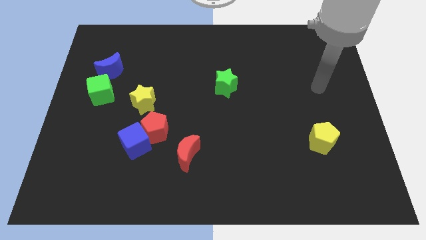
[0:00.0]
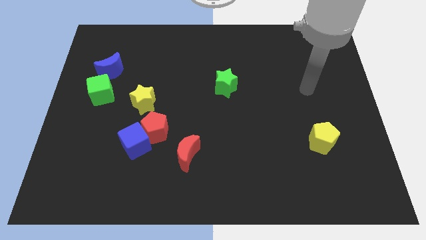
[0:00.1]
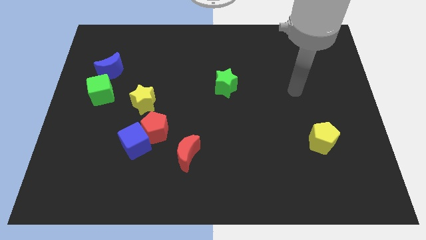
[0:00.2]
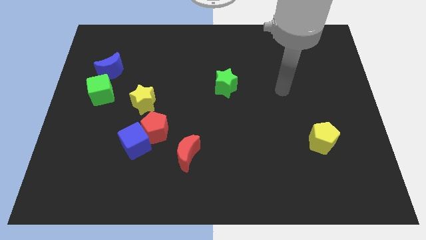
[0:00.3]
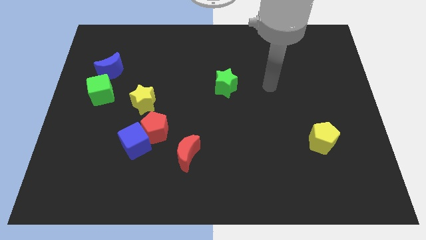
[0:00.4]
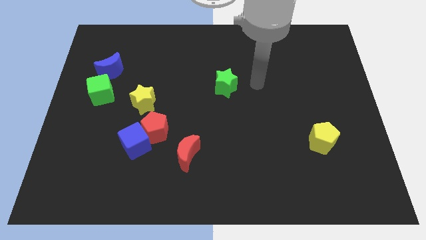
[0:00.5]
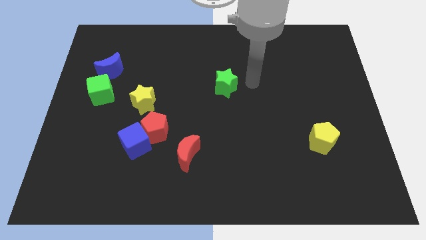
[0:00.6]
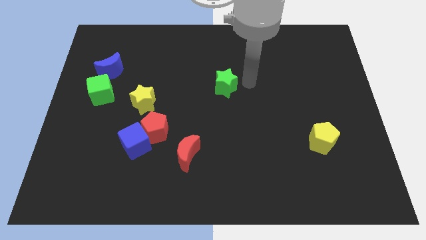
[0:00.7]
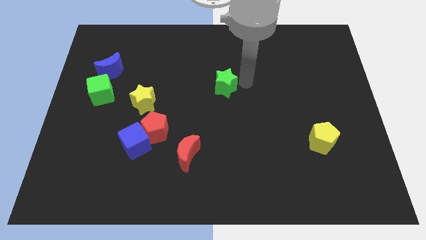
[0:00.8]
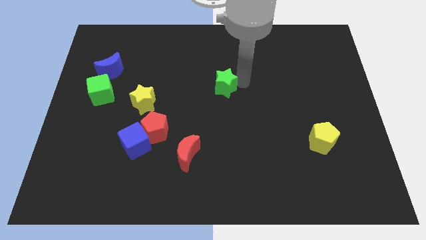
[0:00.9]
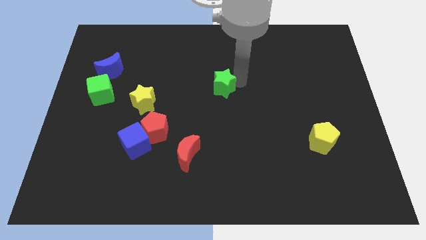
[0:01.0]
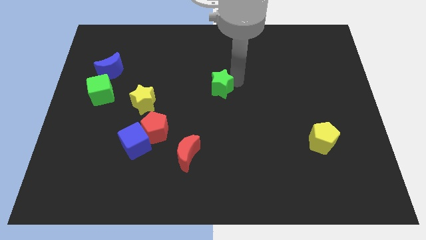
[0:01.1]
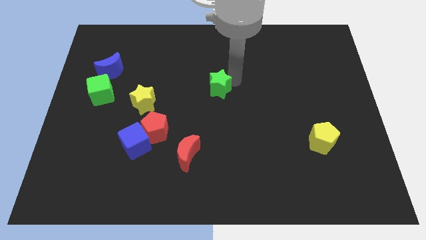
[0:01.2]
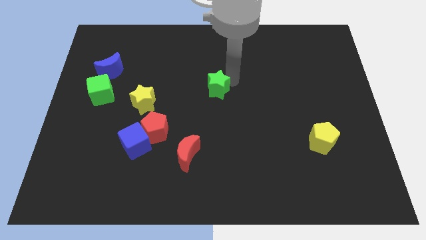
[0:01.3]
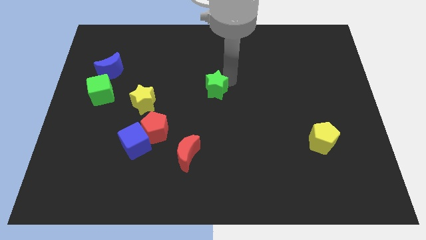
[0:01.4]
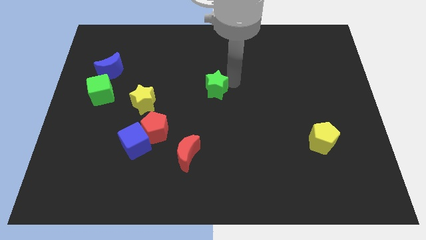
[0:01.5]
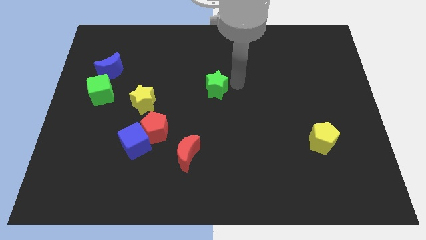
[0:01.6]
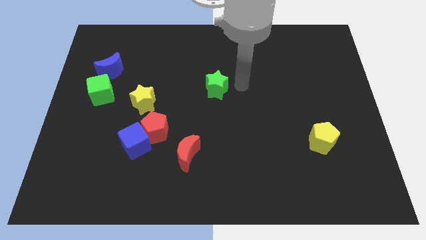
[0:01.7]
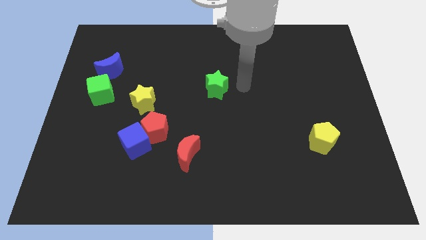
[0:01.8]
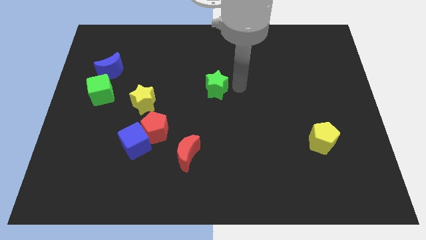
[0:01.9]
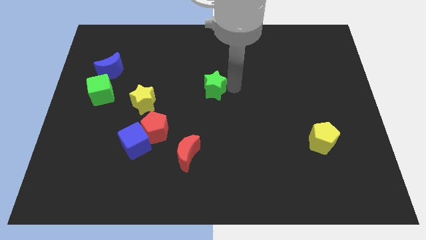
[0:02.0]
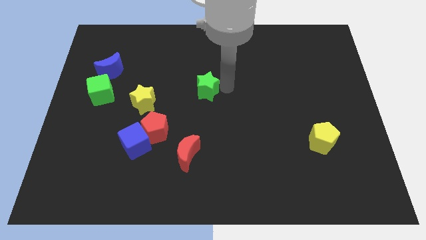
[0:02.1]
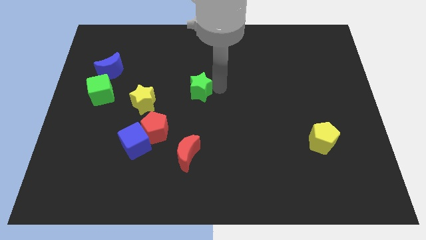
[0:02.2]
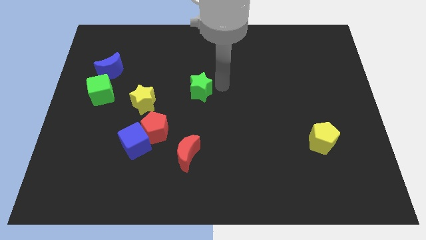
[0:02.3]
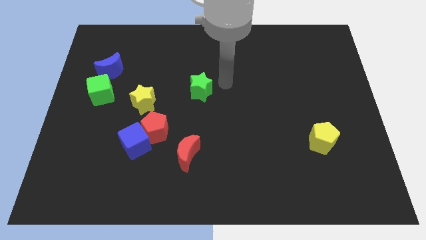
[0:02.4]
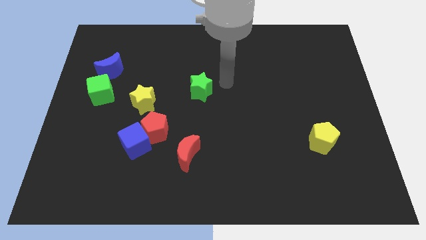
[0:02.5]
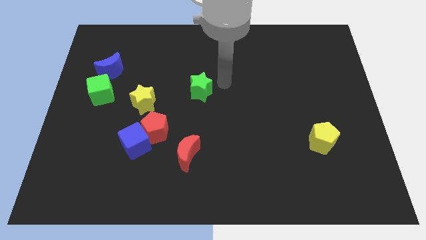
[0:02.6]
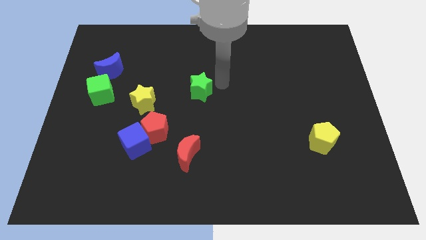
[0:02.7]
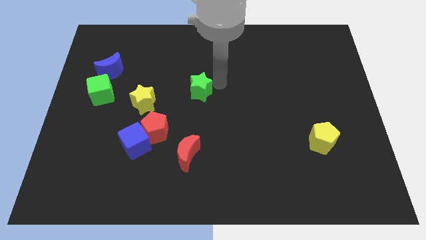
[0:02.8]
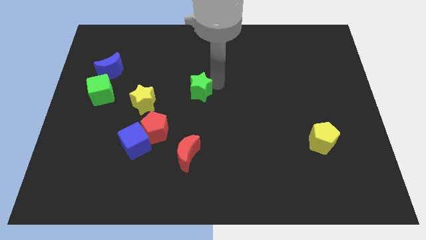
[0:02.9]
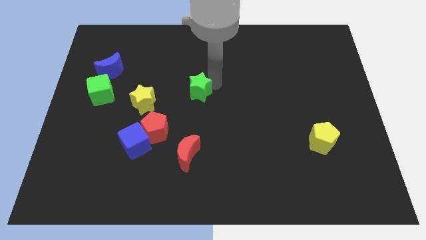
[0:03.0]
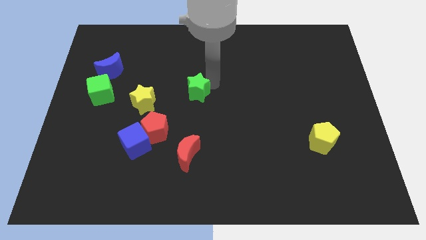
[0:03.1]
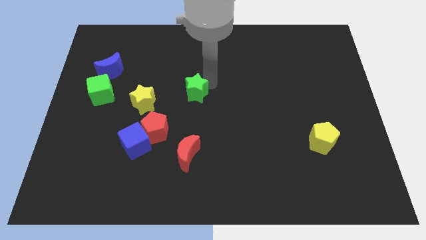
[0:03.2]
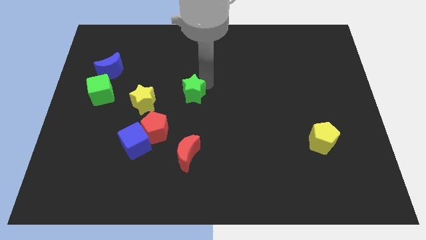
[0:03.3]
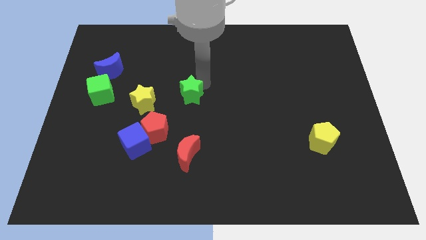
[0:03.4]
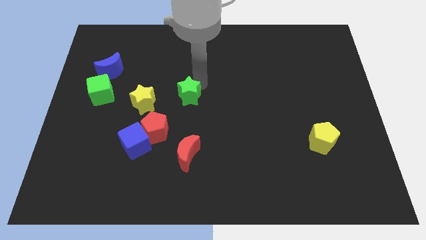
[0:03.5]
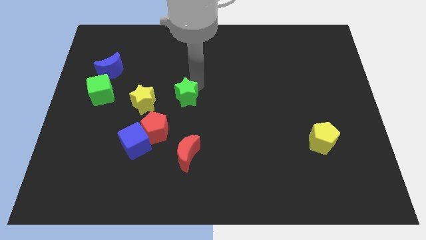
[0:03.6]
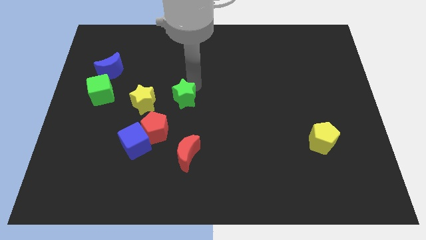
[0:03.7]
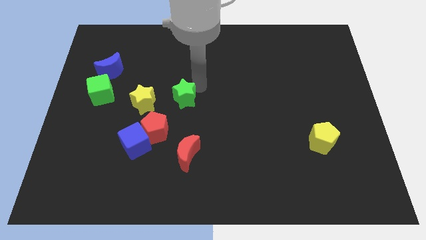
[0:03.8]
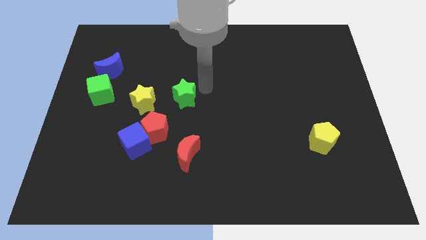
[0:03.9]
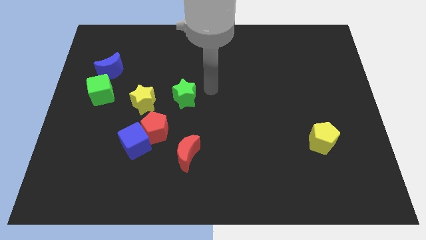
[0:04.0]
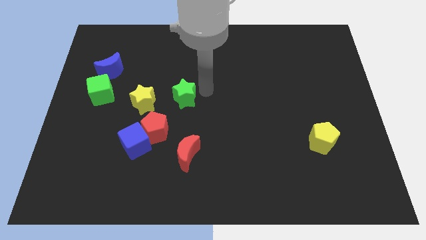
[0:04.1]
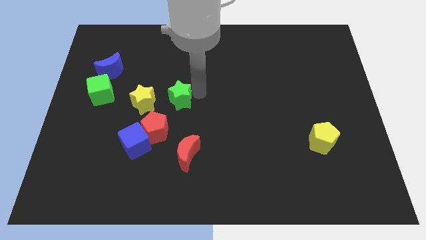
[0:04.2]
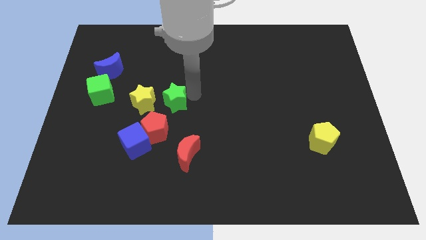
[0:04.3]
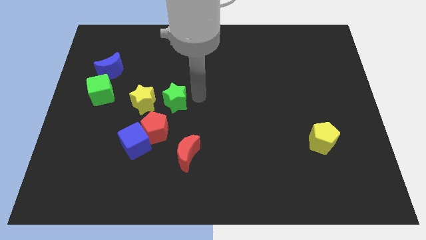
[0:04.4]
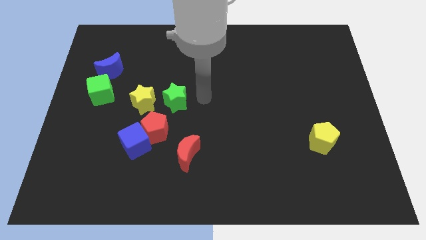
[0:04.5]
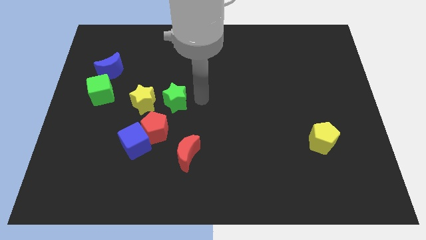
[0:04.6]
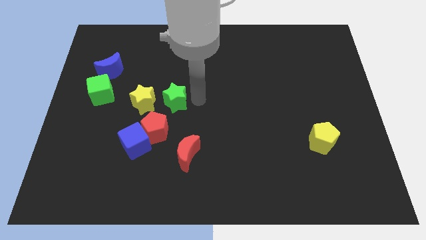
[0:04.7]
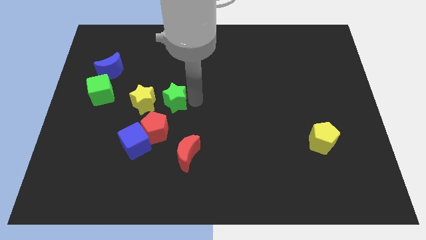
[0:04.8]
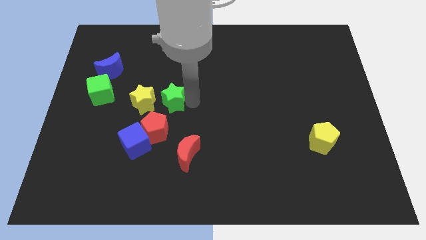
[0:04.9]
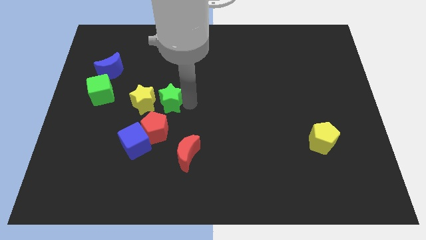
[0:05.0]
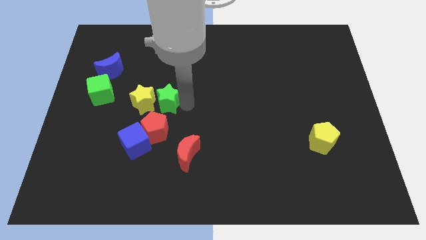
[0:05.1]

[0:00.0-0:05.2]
push the green star close to the yellow star

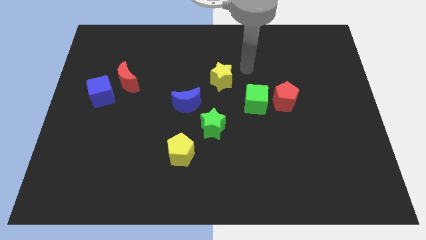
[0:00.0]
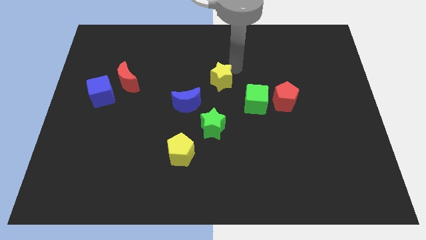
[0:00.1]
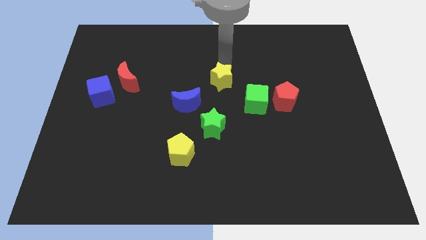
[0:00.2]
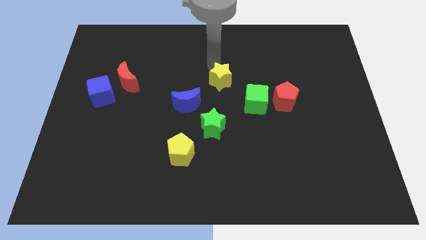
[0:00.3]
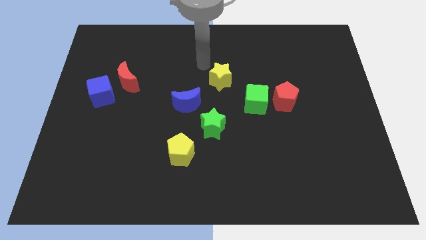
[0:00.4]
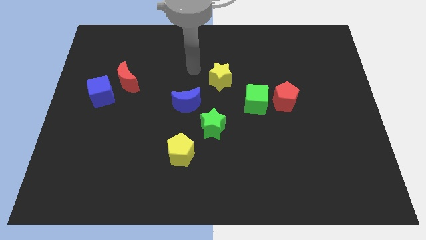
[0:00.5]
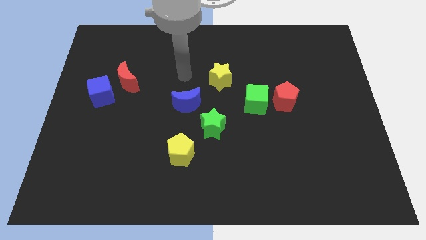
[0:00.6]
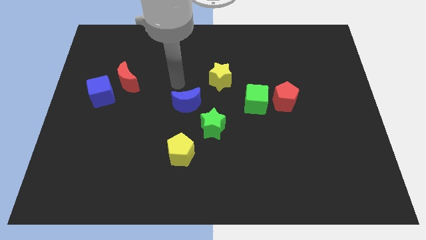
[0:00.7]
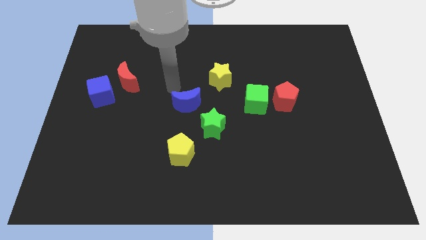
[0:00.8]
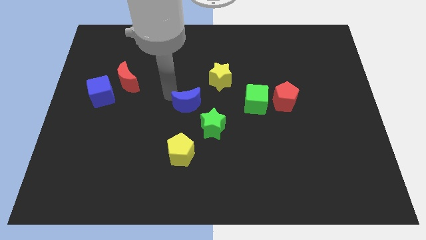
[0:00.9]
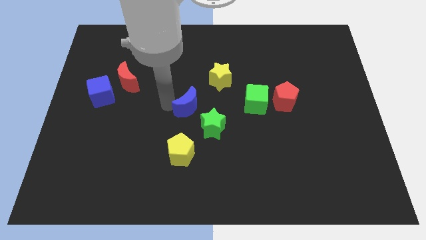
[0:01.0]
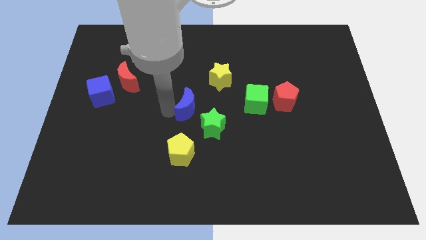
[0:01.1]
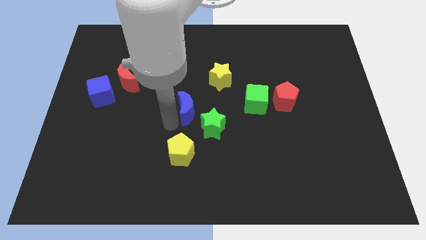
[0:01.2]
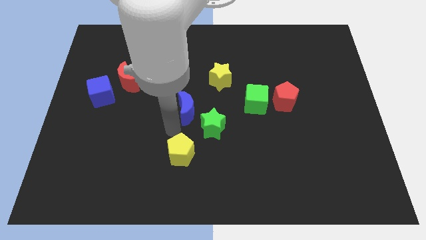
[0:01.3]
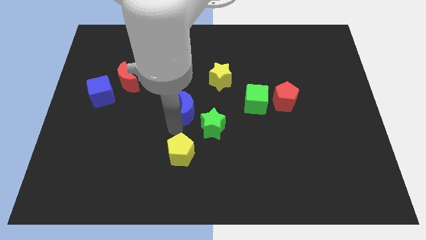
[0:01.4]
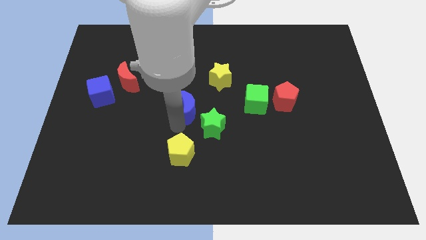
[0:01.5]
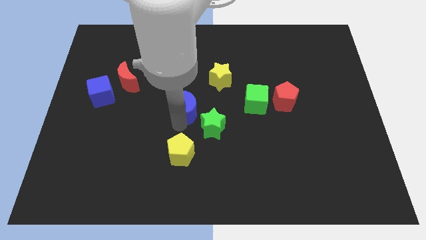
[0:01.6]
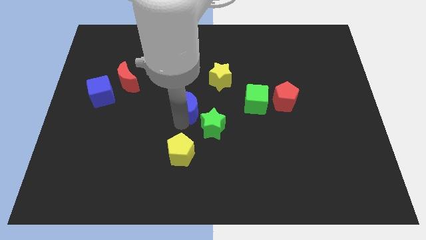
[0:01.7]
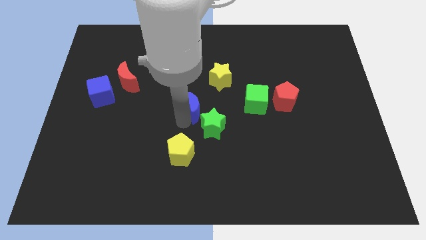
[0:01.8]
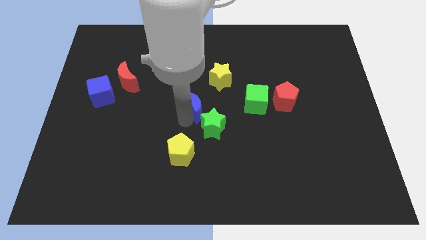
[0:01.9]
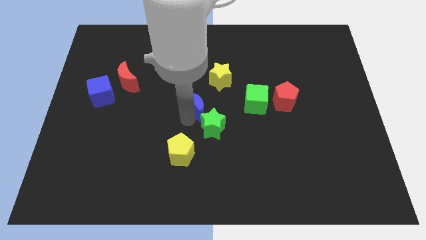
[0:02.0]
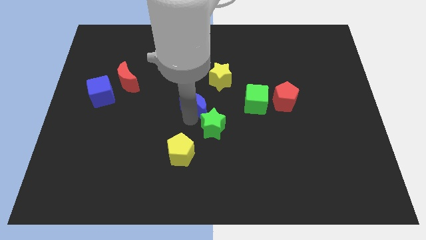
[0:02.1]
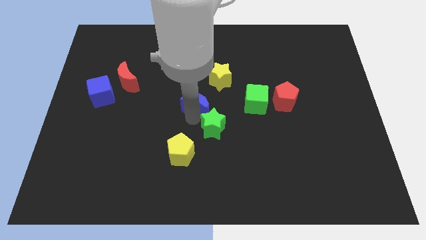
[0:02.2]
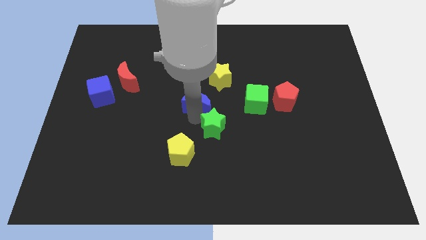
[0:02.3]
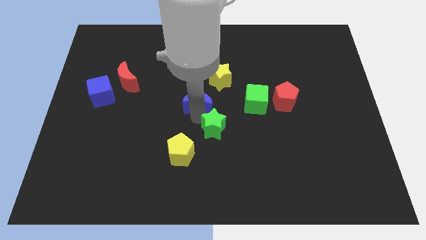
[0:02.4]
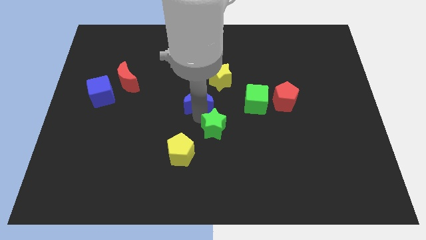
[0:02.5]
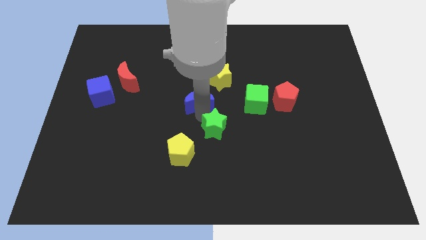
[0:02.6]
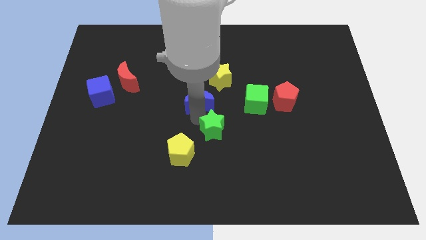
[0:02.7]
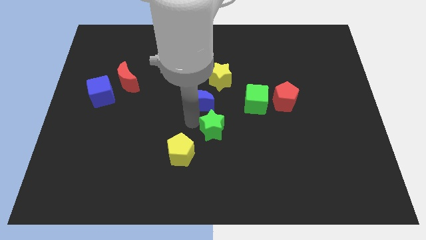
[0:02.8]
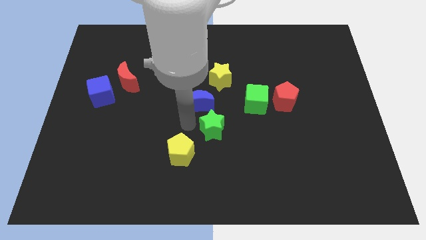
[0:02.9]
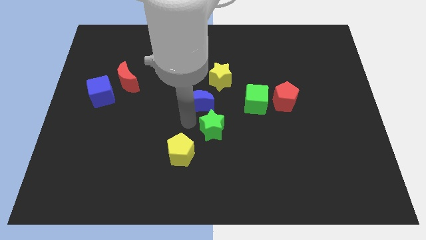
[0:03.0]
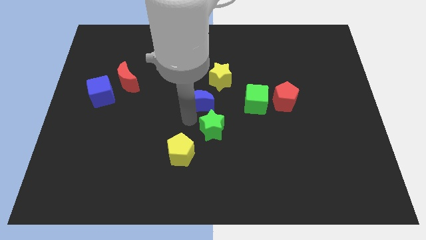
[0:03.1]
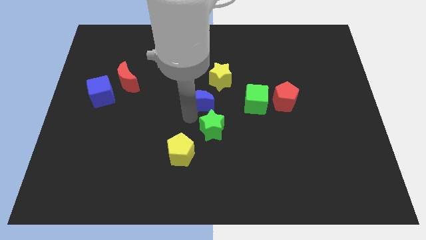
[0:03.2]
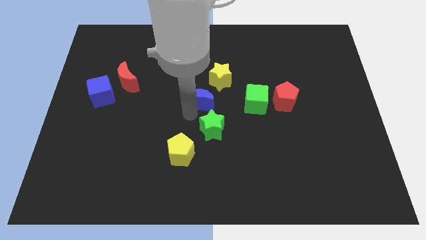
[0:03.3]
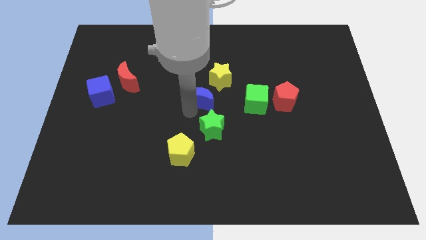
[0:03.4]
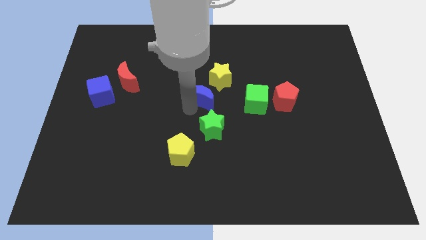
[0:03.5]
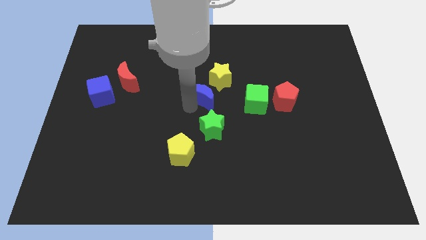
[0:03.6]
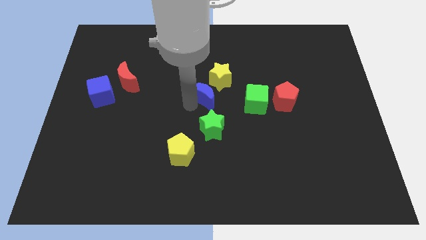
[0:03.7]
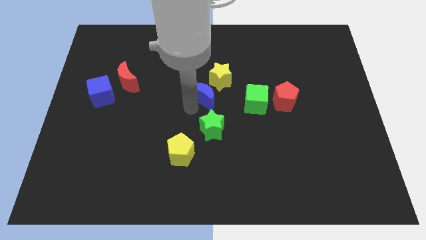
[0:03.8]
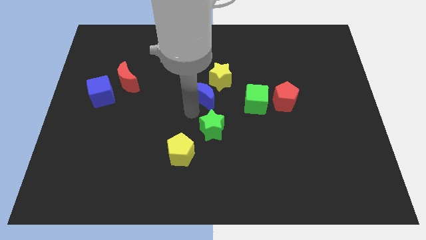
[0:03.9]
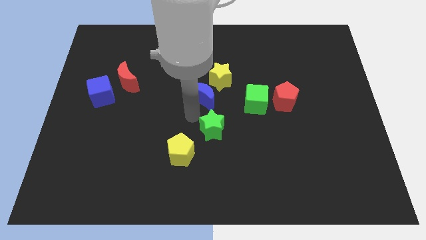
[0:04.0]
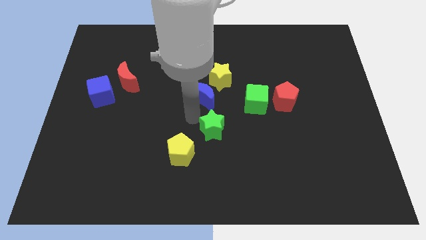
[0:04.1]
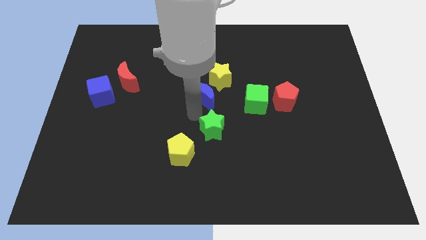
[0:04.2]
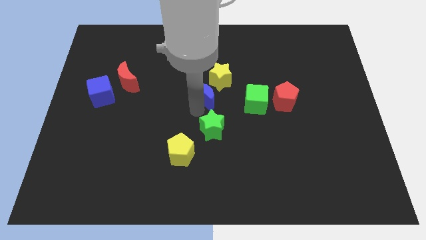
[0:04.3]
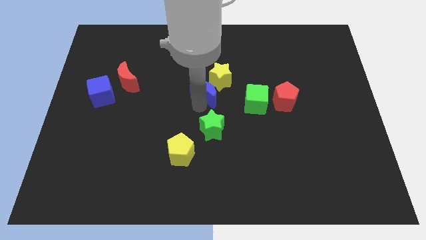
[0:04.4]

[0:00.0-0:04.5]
move the blue moon close to the yellow star
